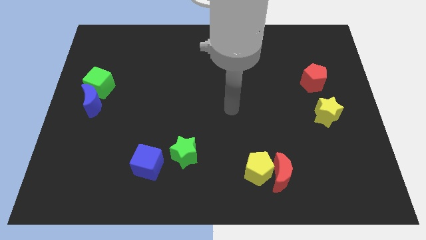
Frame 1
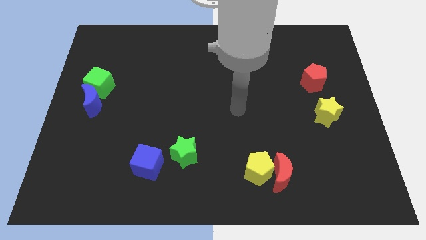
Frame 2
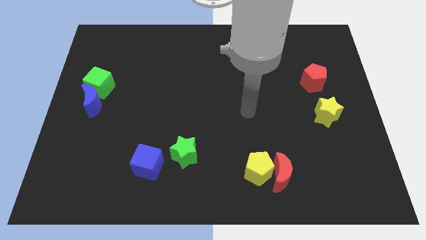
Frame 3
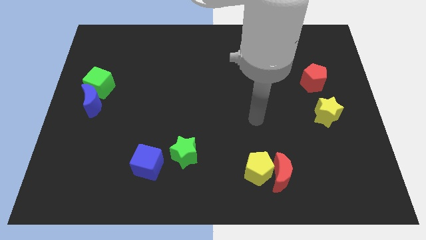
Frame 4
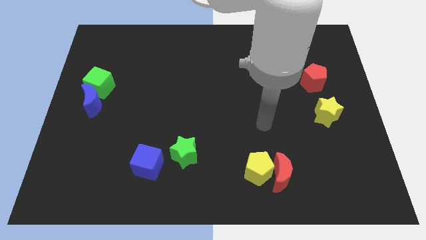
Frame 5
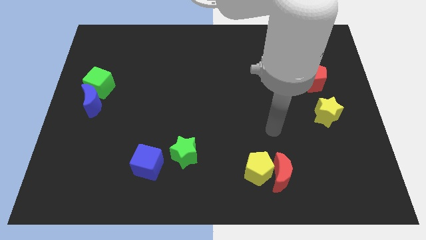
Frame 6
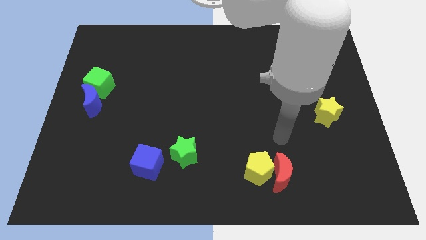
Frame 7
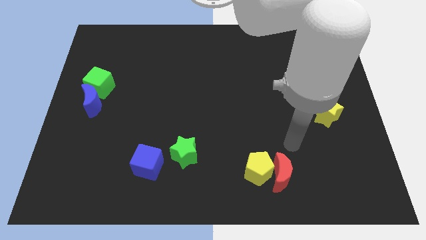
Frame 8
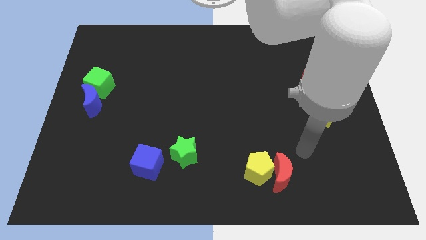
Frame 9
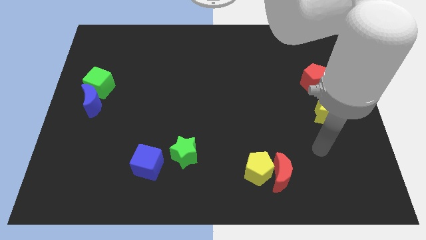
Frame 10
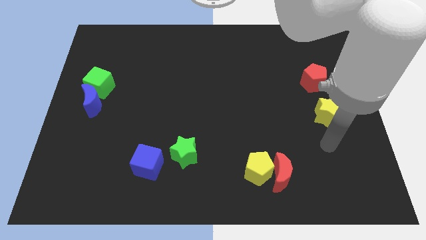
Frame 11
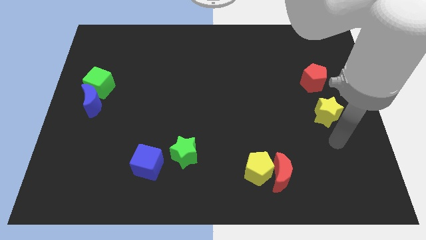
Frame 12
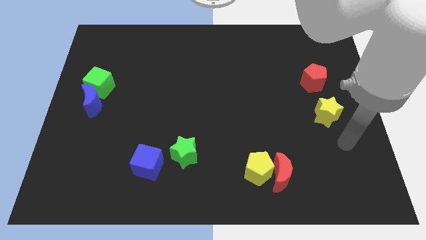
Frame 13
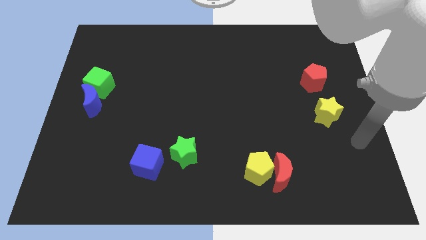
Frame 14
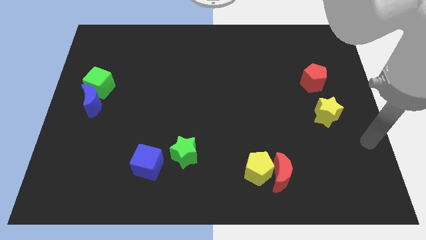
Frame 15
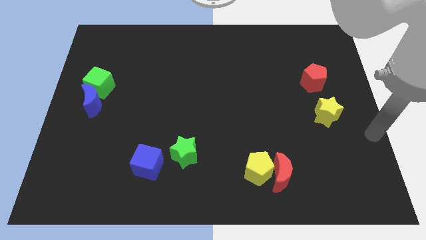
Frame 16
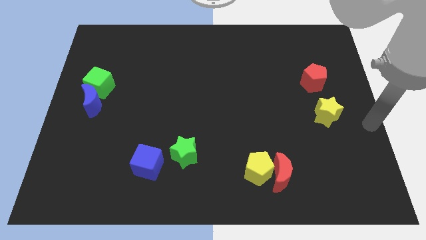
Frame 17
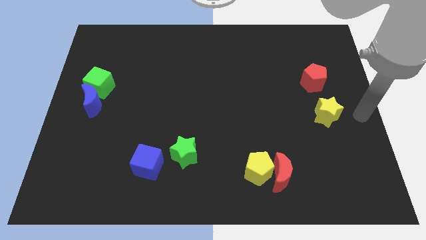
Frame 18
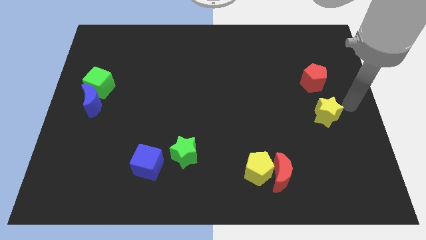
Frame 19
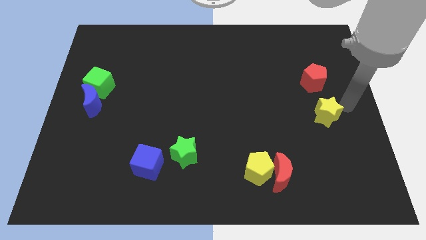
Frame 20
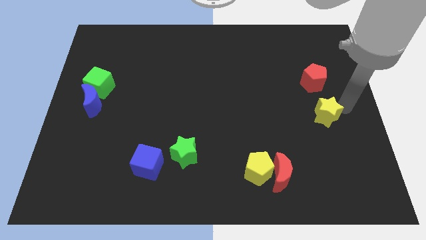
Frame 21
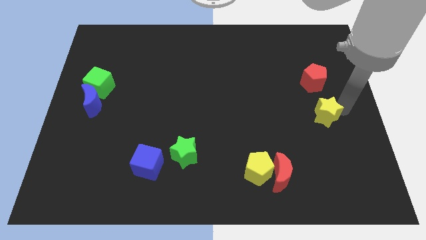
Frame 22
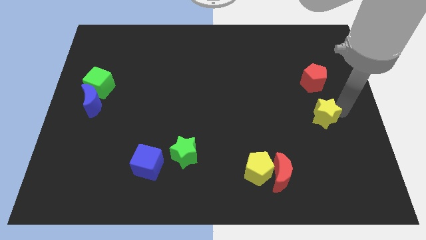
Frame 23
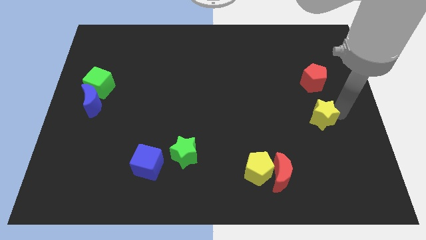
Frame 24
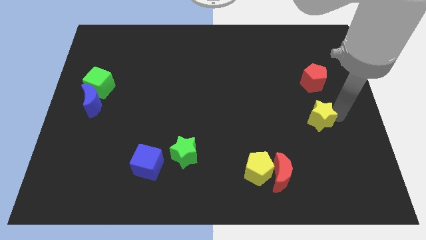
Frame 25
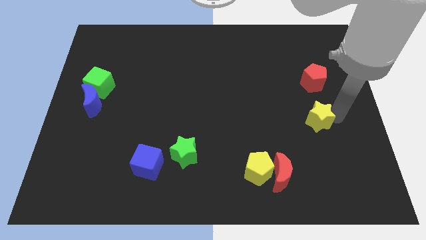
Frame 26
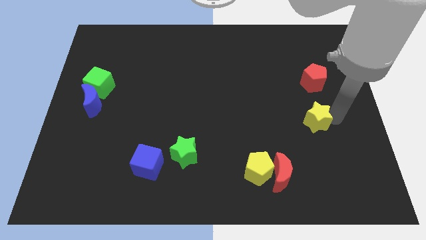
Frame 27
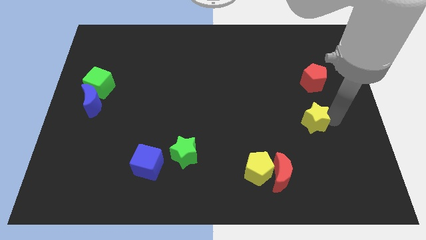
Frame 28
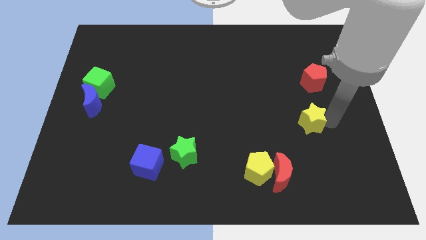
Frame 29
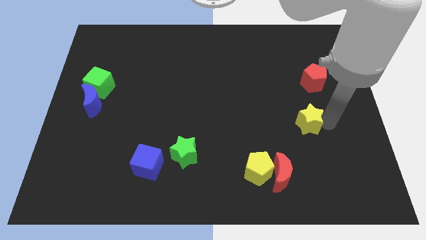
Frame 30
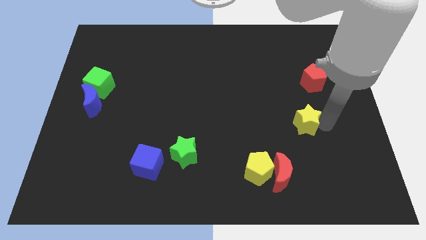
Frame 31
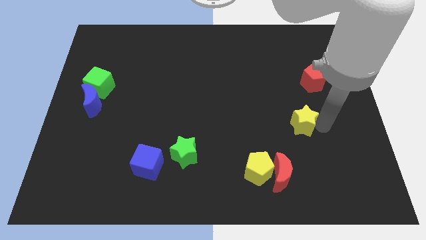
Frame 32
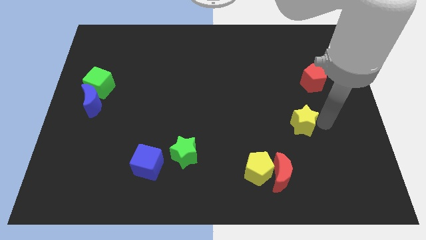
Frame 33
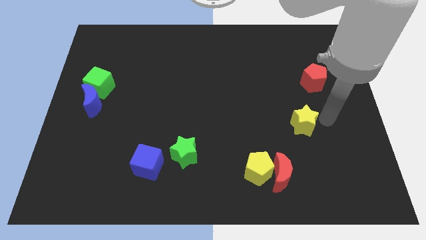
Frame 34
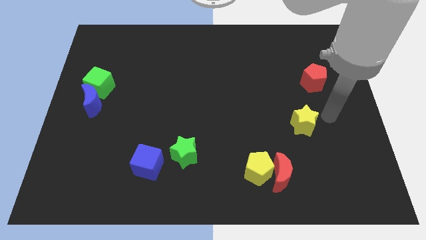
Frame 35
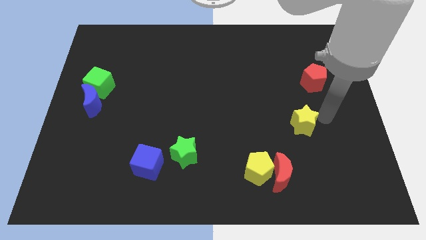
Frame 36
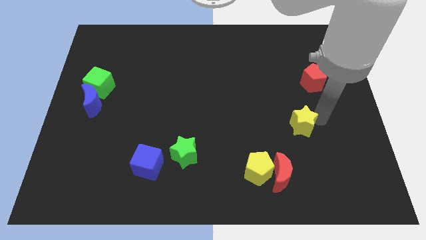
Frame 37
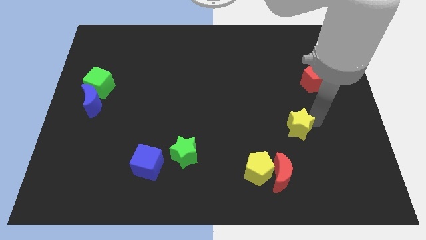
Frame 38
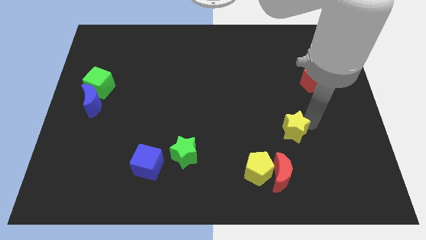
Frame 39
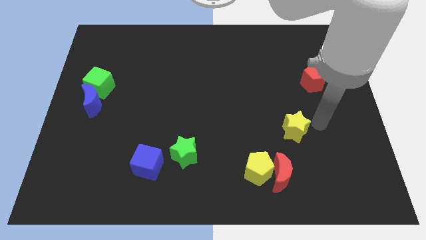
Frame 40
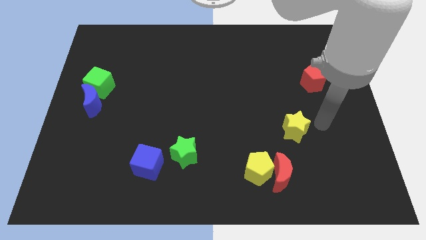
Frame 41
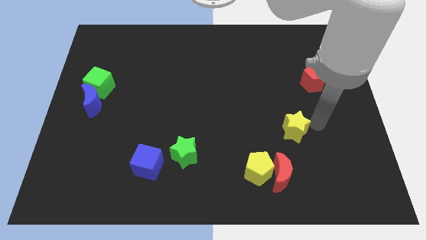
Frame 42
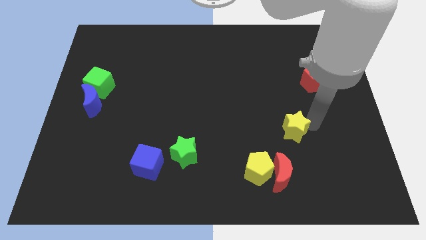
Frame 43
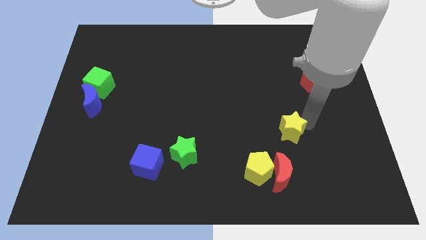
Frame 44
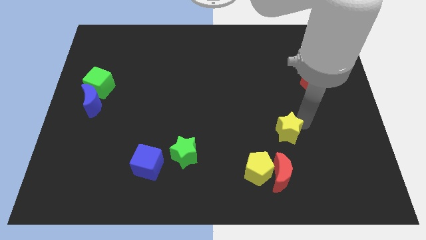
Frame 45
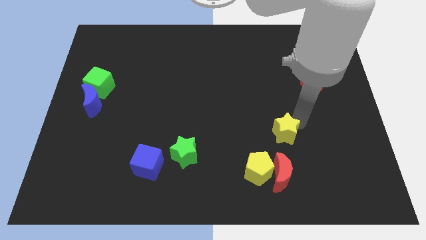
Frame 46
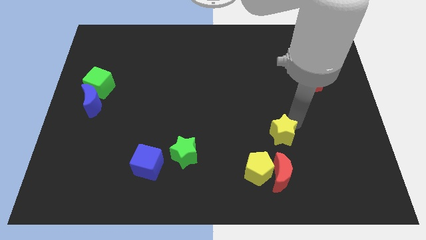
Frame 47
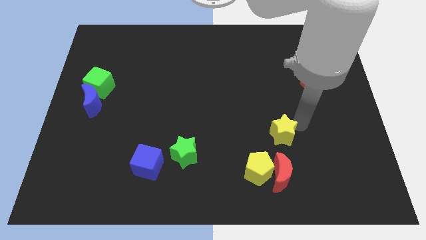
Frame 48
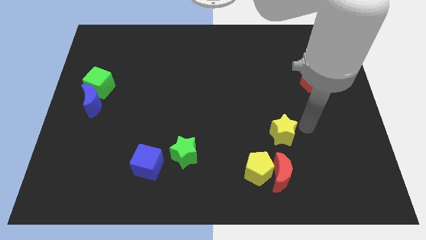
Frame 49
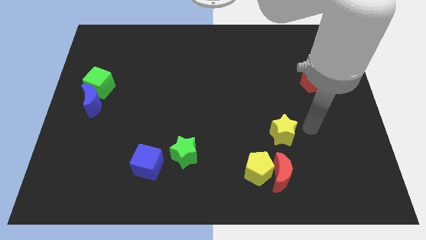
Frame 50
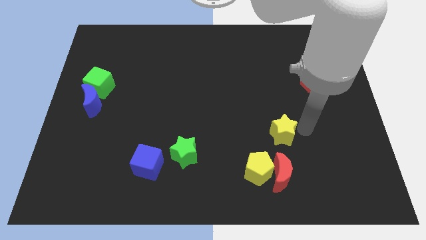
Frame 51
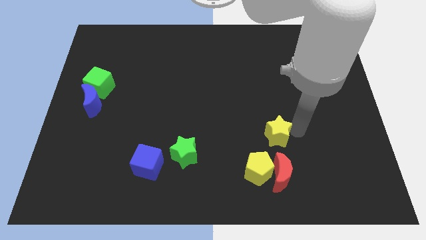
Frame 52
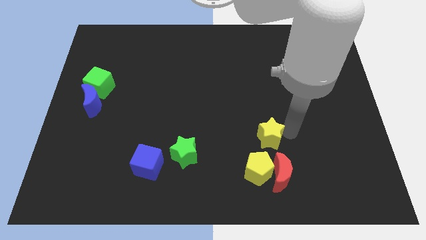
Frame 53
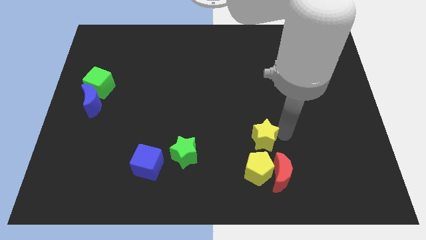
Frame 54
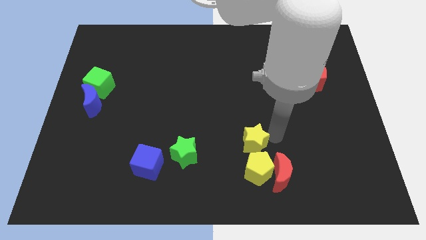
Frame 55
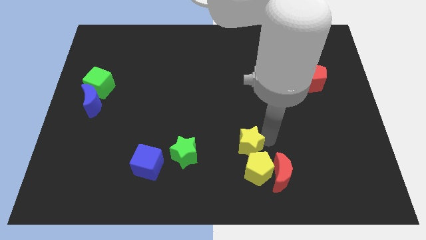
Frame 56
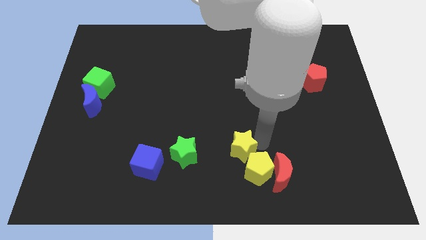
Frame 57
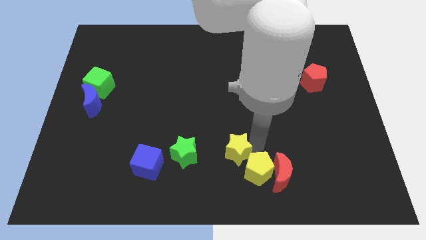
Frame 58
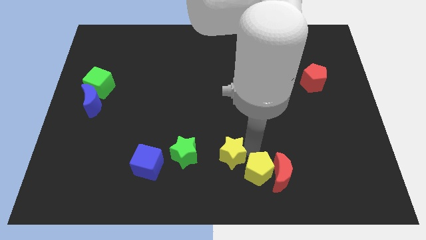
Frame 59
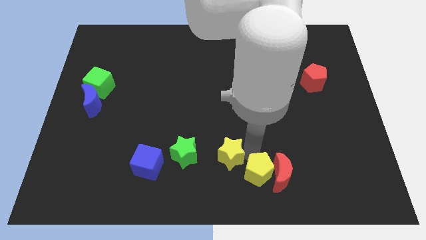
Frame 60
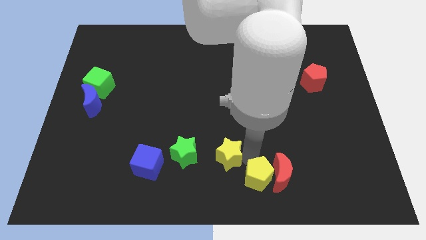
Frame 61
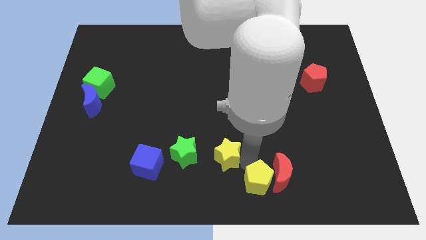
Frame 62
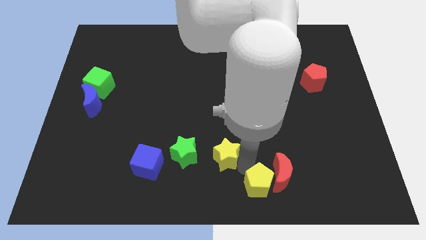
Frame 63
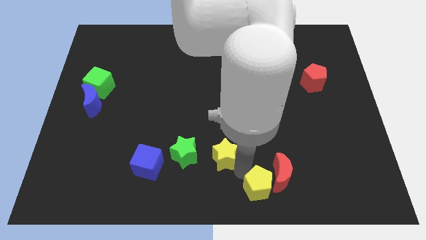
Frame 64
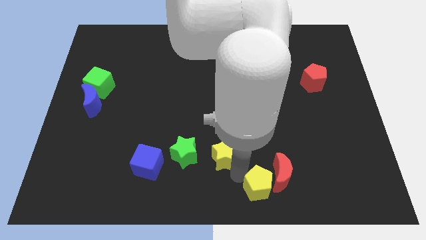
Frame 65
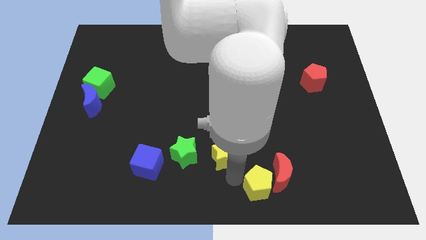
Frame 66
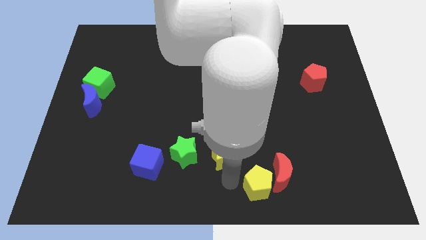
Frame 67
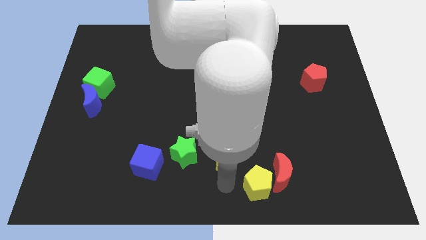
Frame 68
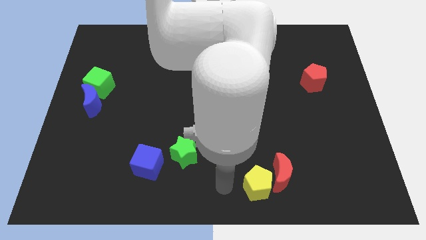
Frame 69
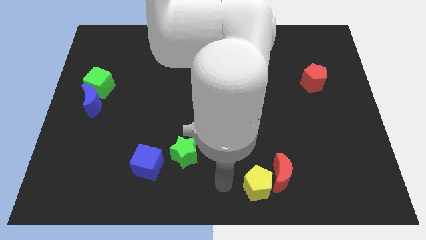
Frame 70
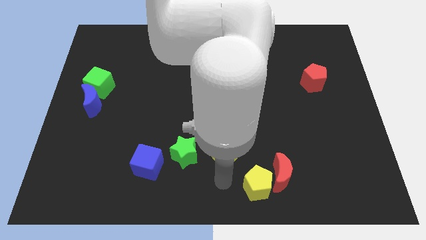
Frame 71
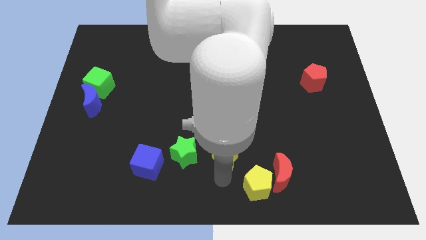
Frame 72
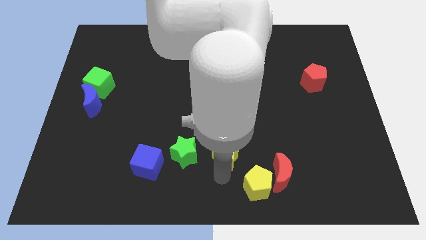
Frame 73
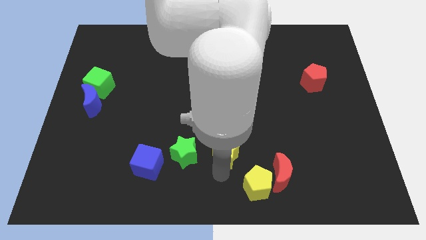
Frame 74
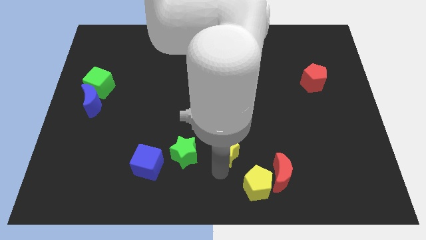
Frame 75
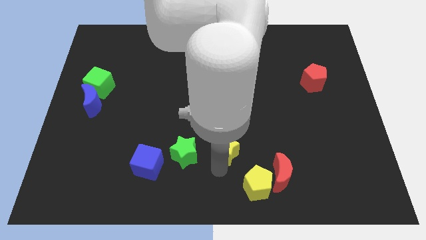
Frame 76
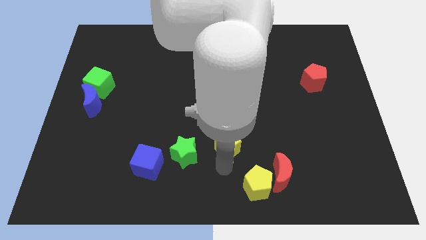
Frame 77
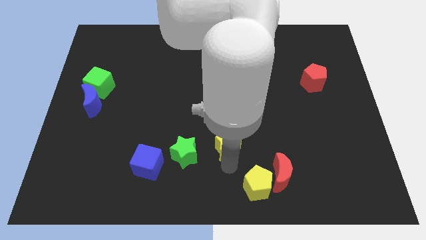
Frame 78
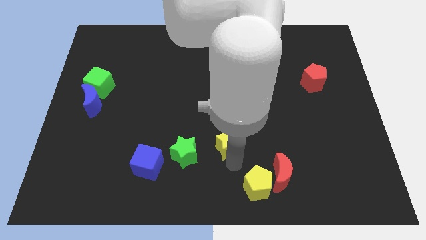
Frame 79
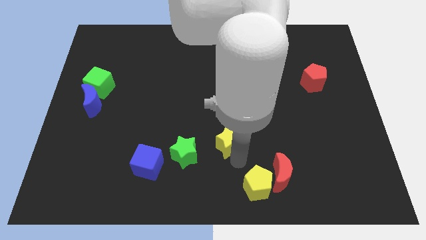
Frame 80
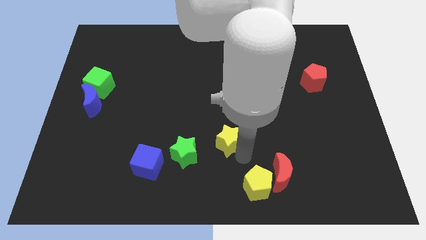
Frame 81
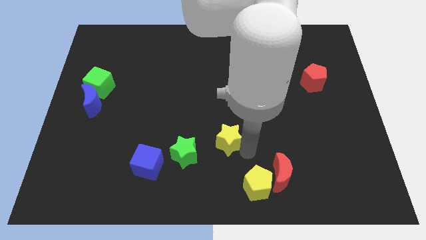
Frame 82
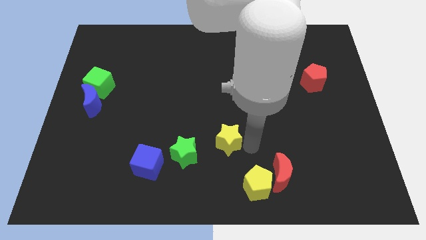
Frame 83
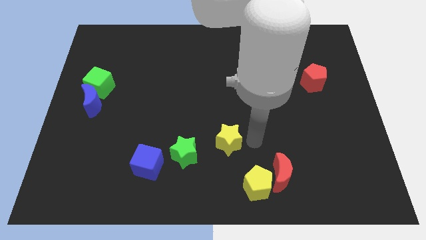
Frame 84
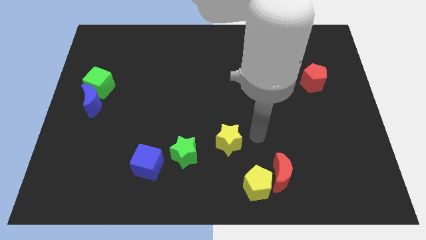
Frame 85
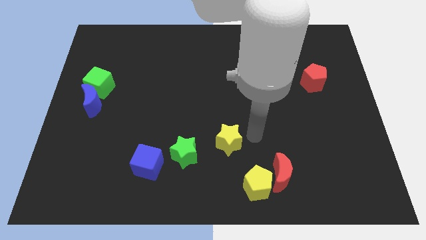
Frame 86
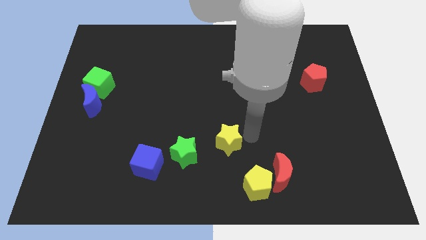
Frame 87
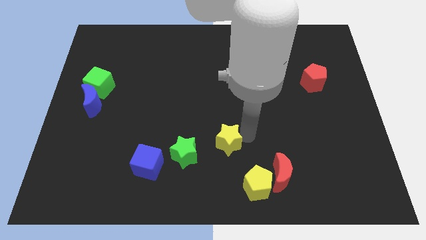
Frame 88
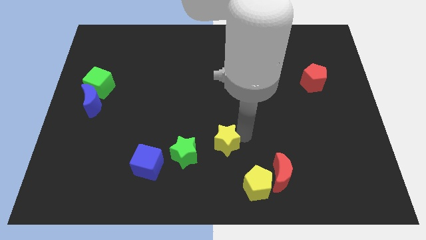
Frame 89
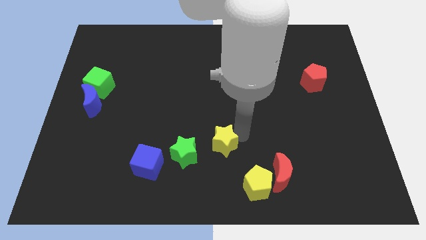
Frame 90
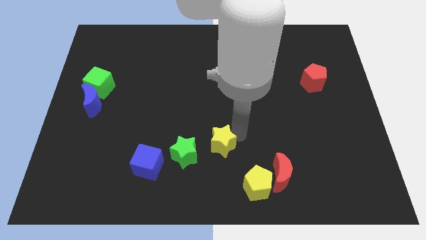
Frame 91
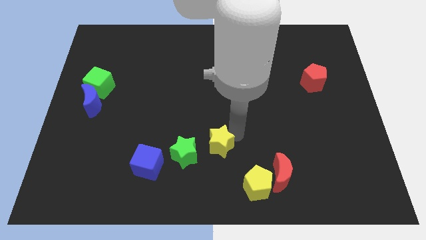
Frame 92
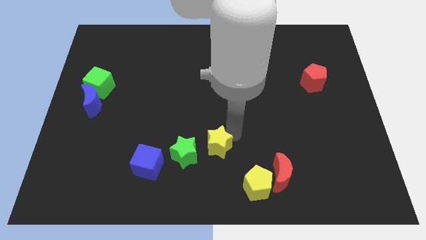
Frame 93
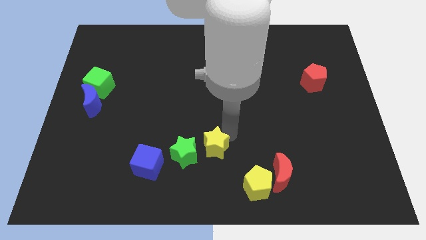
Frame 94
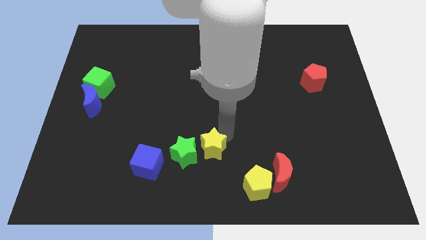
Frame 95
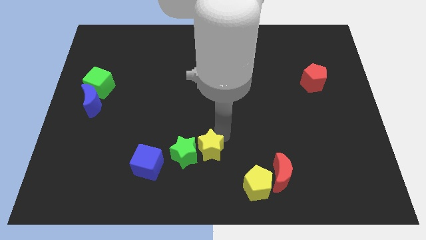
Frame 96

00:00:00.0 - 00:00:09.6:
move the yellow star close to the green star
